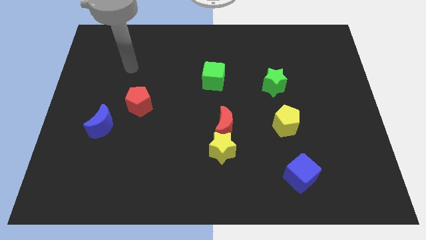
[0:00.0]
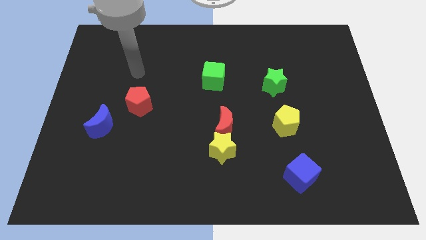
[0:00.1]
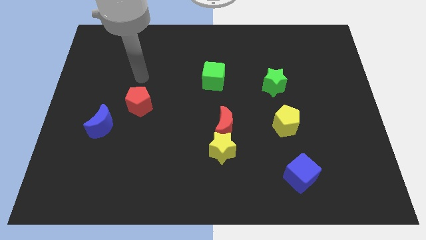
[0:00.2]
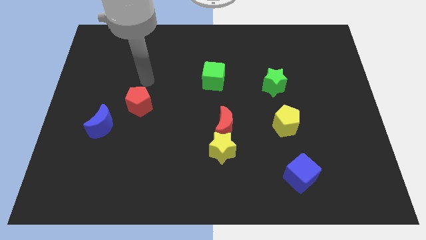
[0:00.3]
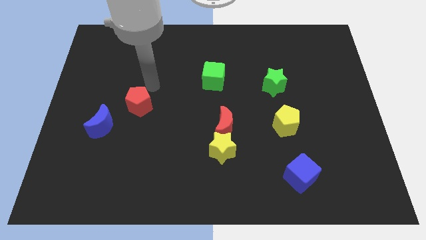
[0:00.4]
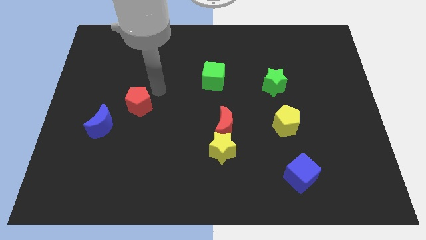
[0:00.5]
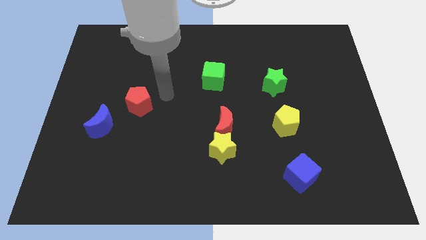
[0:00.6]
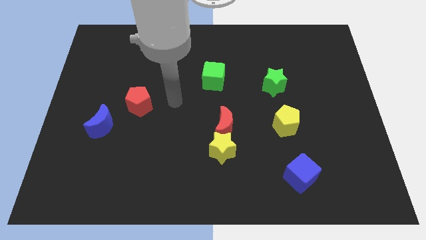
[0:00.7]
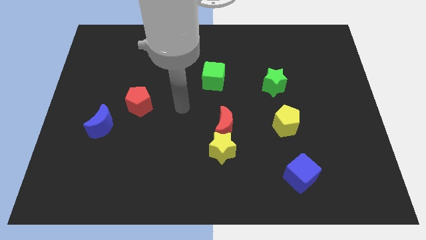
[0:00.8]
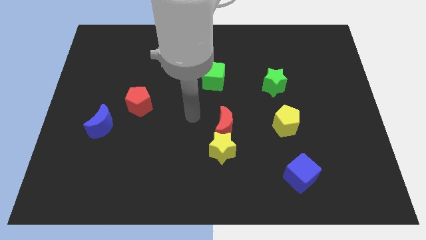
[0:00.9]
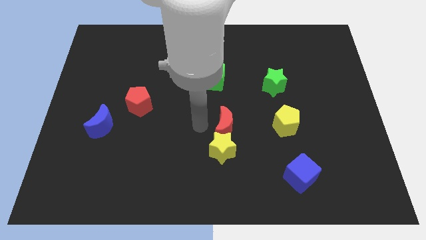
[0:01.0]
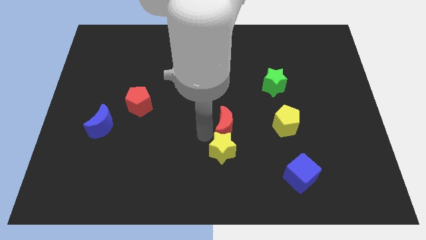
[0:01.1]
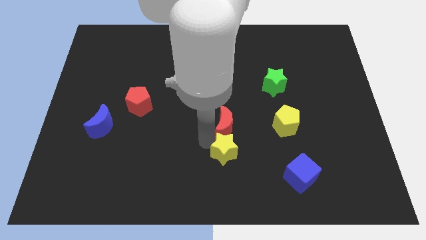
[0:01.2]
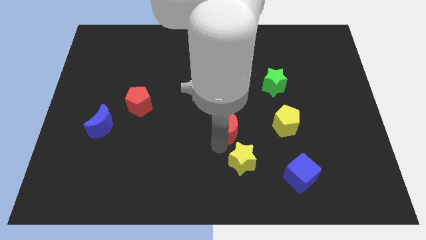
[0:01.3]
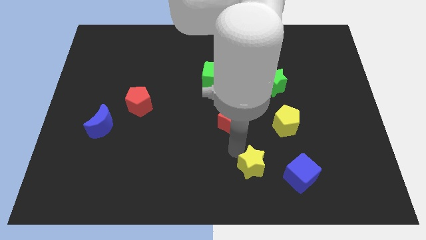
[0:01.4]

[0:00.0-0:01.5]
move the red moon away from the yellow star

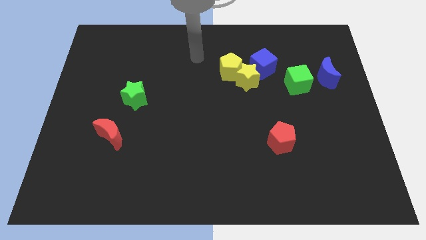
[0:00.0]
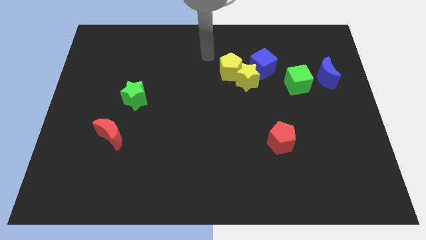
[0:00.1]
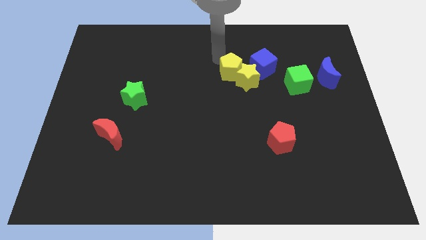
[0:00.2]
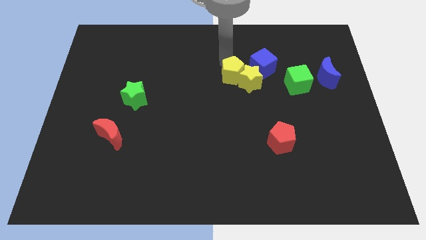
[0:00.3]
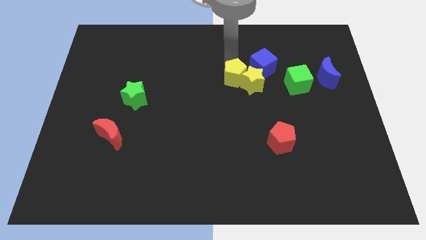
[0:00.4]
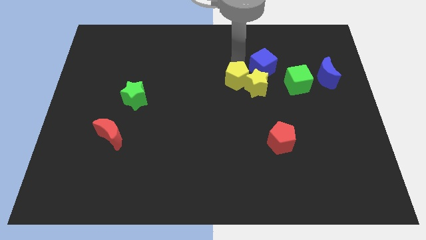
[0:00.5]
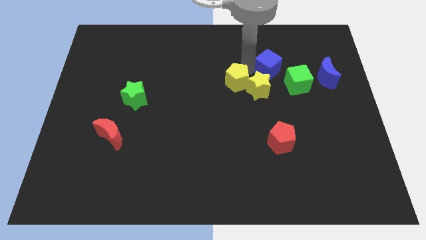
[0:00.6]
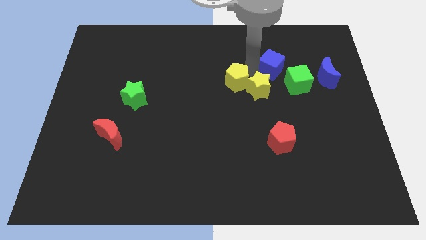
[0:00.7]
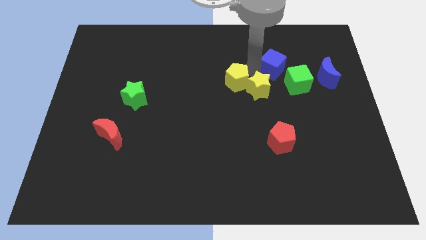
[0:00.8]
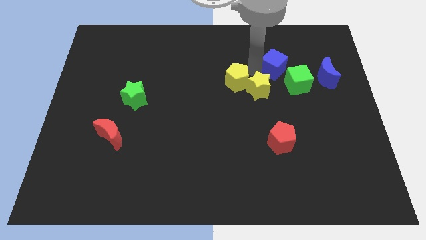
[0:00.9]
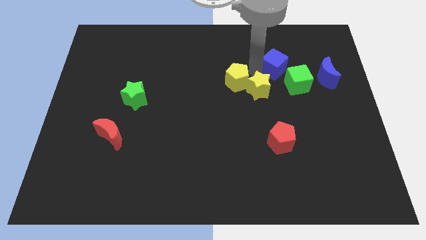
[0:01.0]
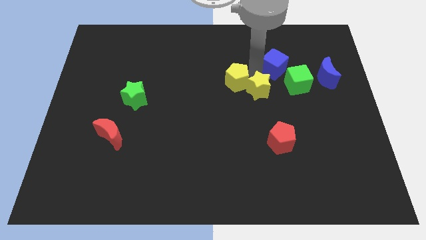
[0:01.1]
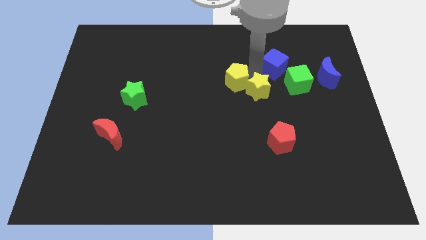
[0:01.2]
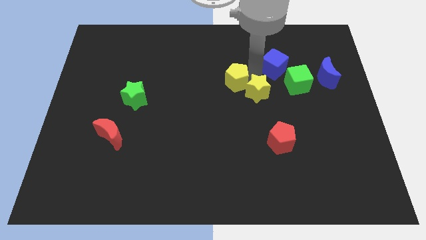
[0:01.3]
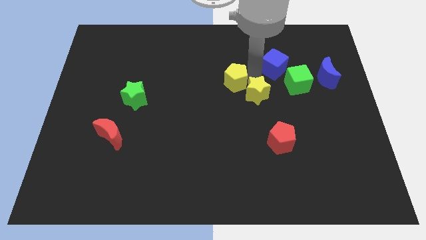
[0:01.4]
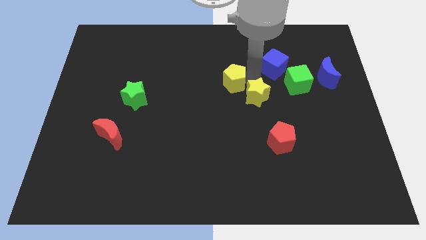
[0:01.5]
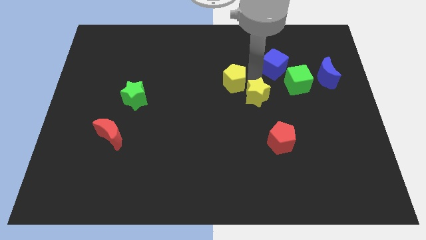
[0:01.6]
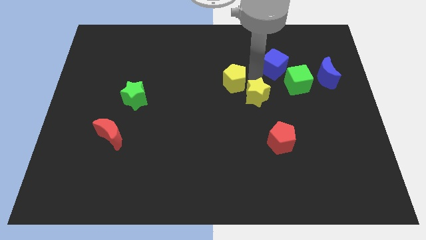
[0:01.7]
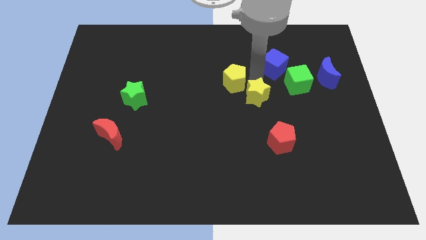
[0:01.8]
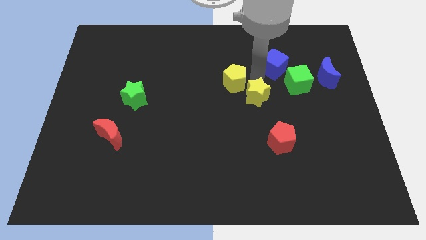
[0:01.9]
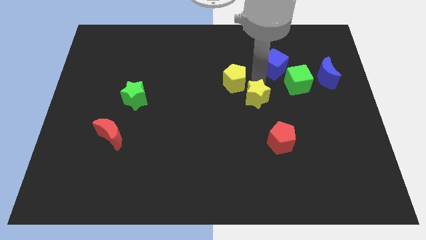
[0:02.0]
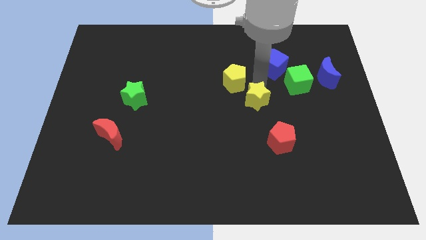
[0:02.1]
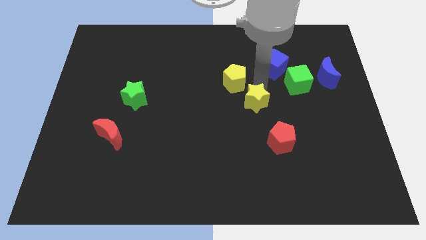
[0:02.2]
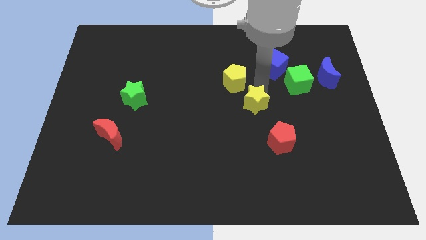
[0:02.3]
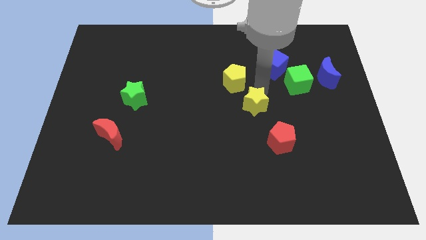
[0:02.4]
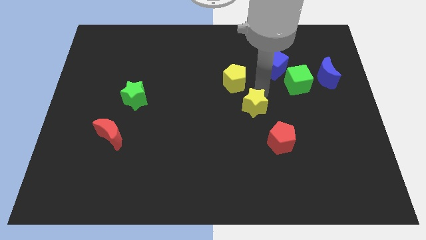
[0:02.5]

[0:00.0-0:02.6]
separate the yellow star from the yellow pentagon and blue cube

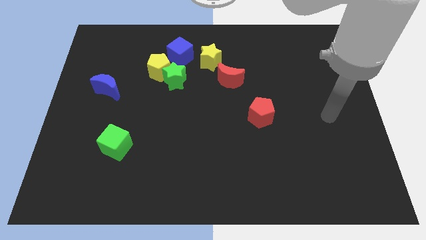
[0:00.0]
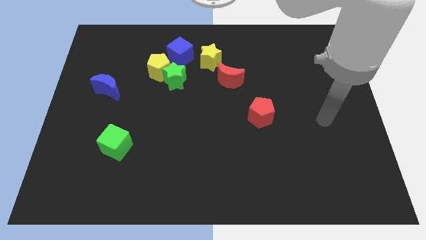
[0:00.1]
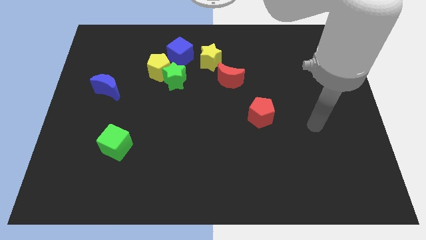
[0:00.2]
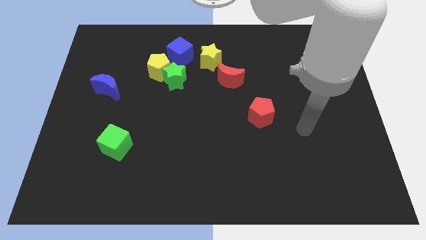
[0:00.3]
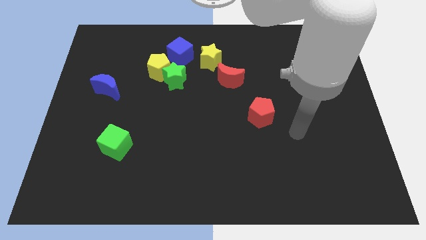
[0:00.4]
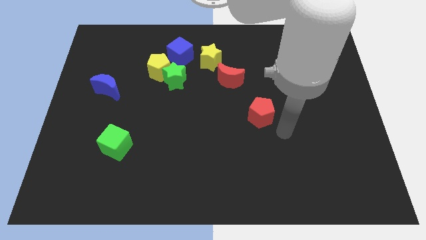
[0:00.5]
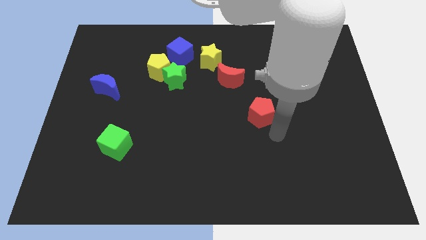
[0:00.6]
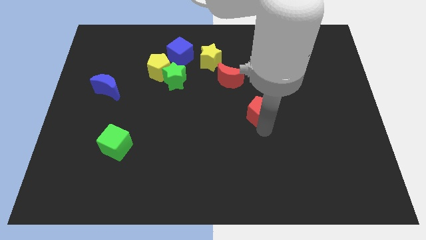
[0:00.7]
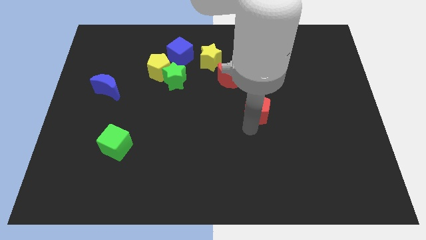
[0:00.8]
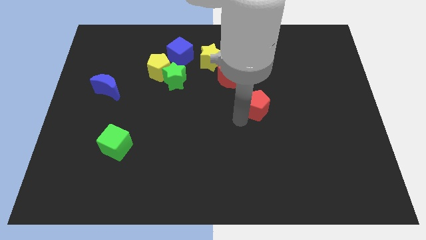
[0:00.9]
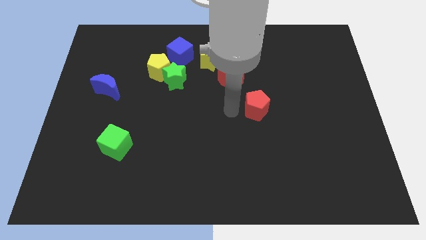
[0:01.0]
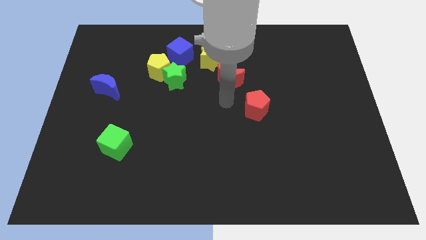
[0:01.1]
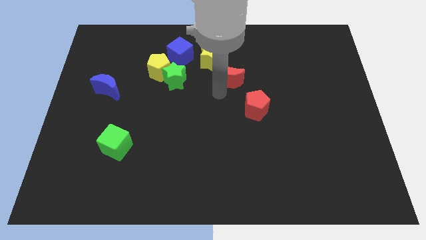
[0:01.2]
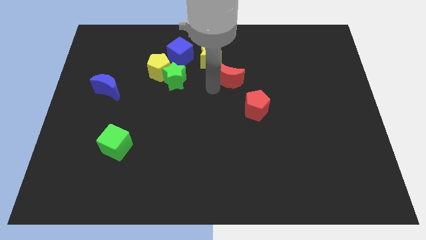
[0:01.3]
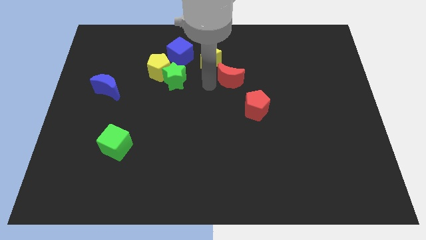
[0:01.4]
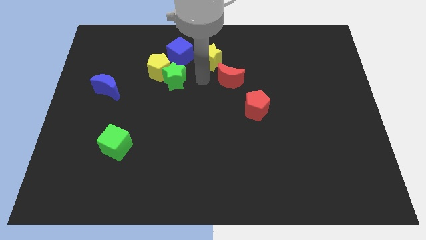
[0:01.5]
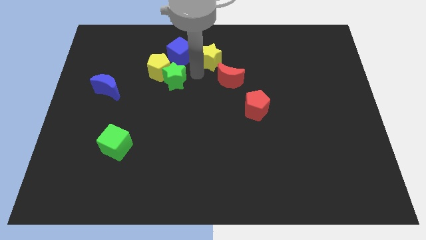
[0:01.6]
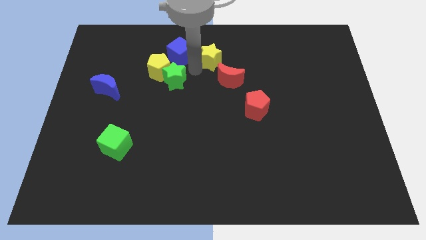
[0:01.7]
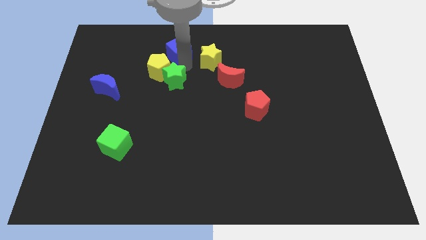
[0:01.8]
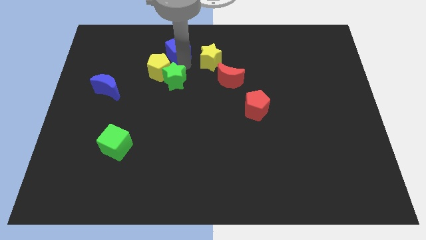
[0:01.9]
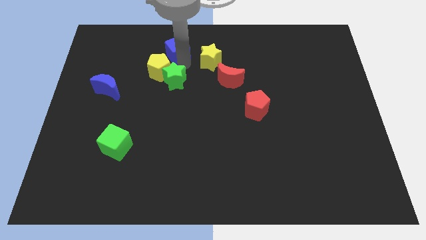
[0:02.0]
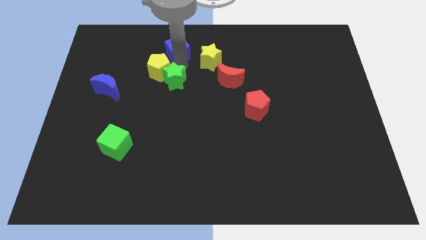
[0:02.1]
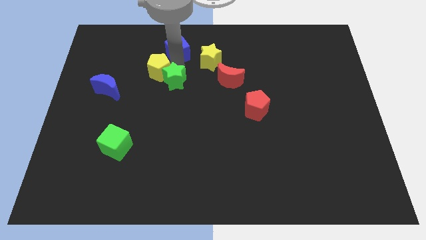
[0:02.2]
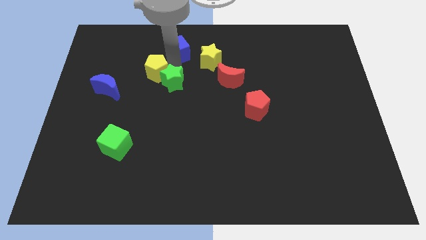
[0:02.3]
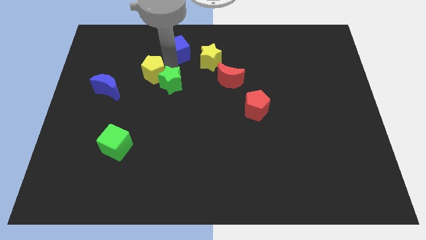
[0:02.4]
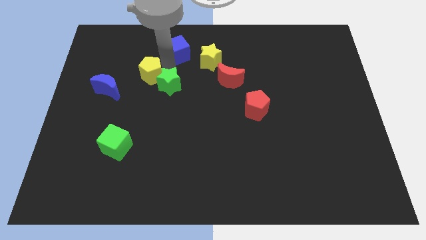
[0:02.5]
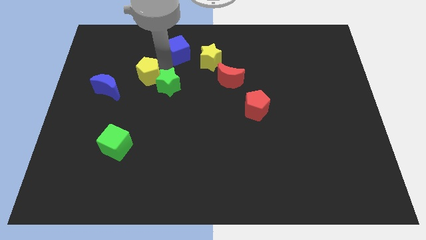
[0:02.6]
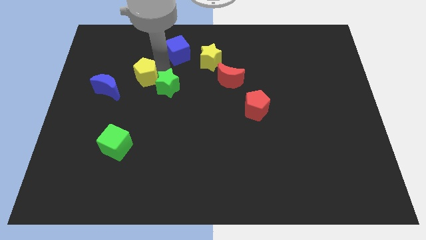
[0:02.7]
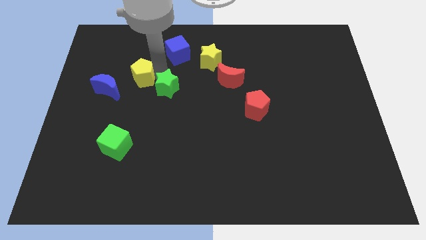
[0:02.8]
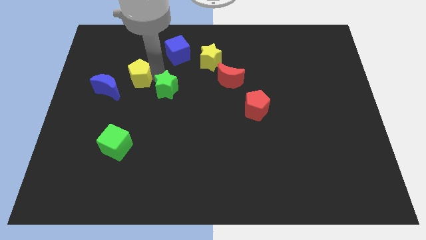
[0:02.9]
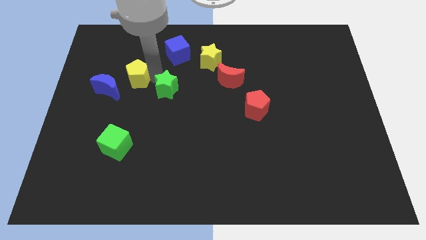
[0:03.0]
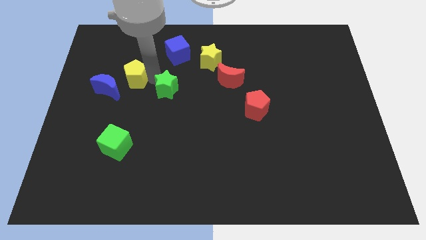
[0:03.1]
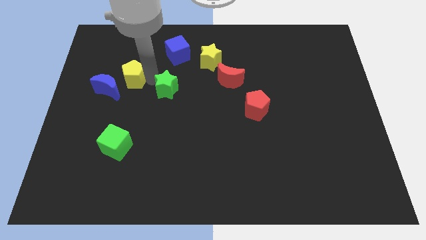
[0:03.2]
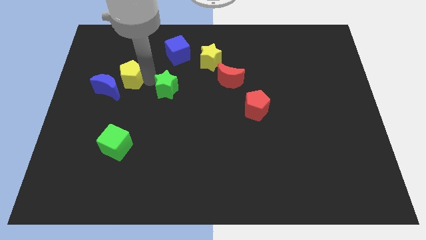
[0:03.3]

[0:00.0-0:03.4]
pull the yellow pentagon apart from the green star and blue cube

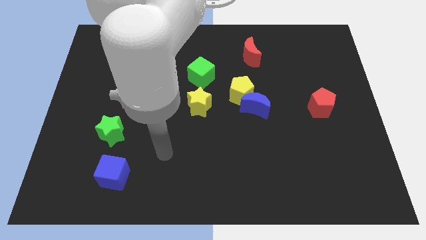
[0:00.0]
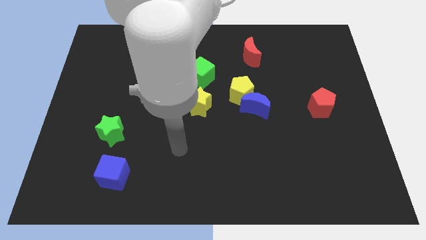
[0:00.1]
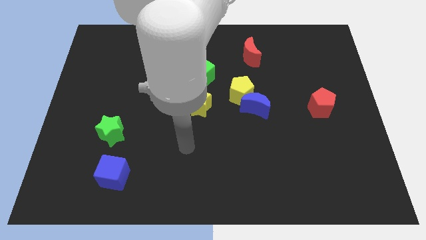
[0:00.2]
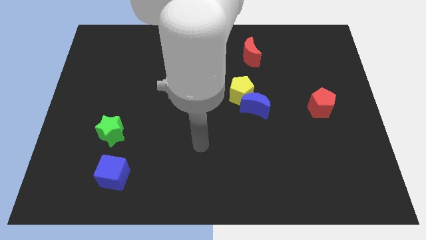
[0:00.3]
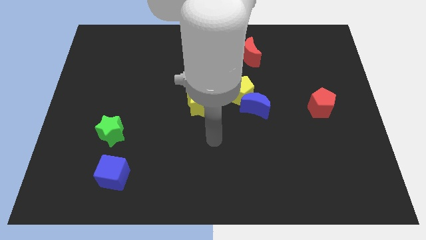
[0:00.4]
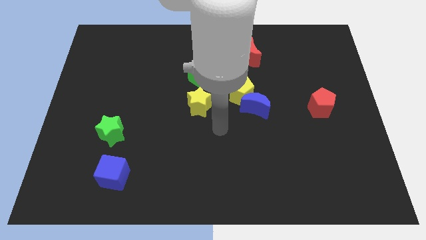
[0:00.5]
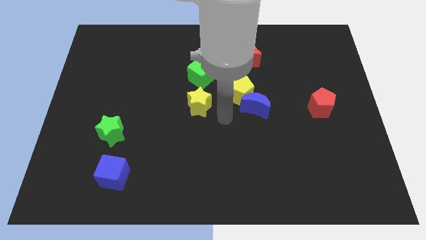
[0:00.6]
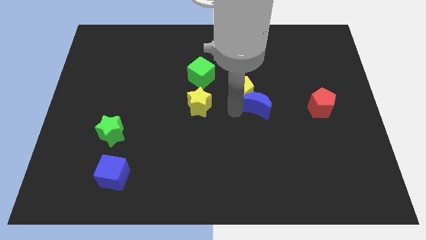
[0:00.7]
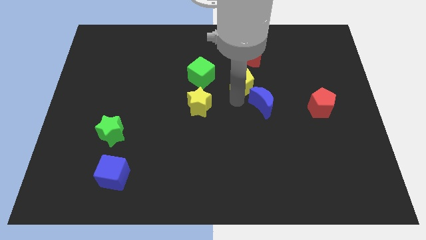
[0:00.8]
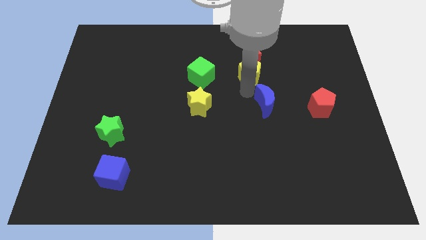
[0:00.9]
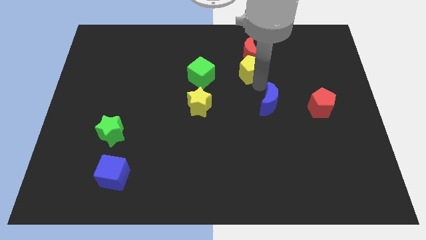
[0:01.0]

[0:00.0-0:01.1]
separate the blue moon from the yellow pentagon

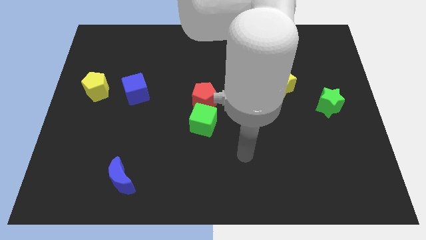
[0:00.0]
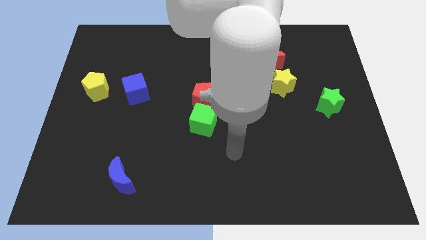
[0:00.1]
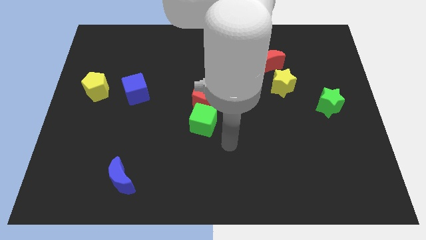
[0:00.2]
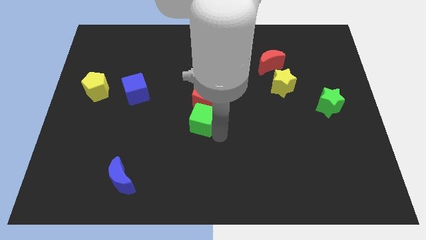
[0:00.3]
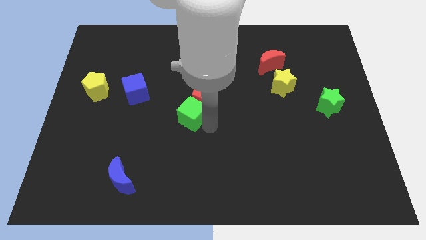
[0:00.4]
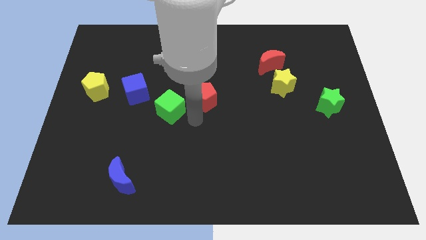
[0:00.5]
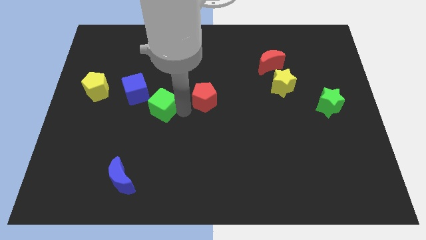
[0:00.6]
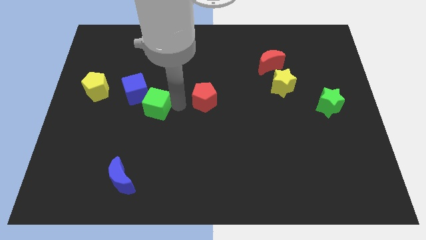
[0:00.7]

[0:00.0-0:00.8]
separate the red pentagon from the green cube

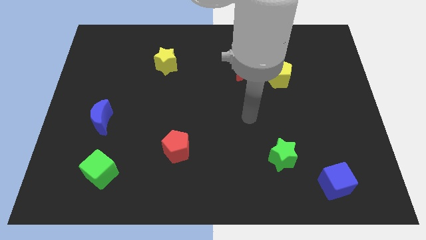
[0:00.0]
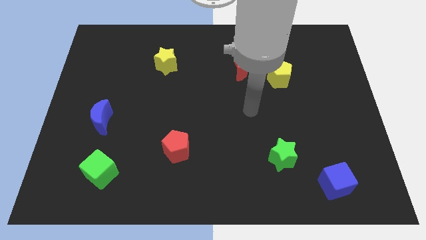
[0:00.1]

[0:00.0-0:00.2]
move the red moon away from the yellow pentagon
